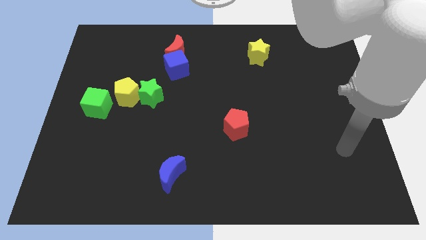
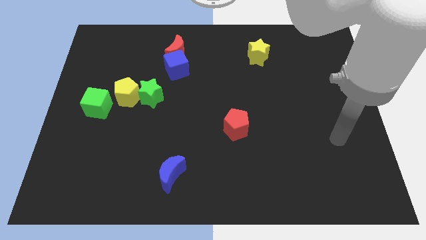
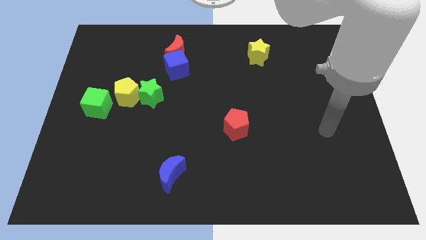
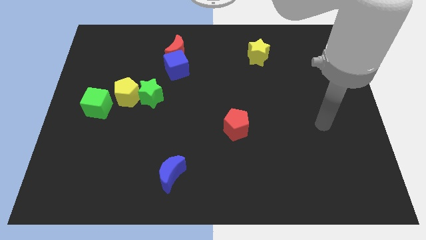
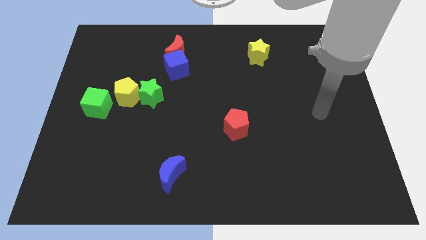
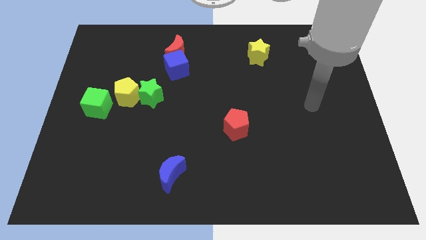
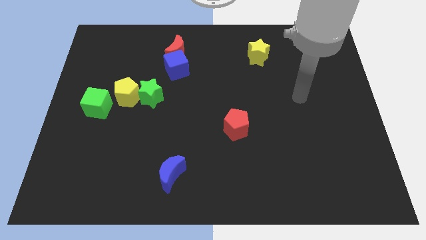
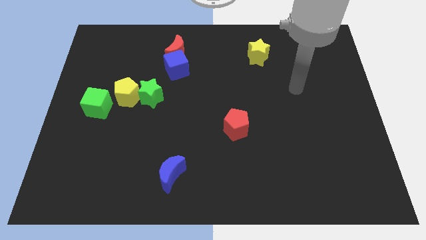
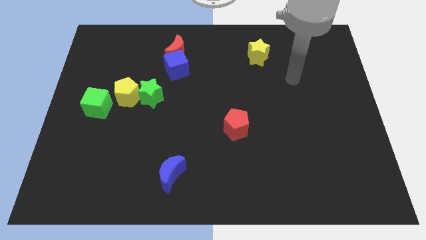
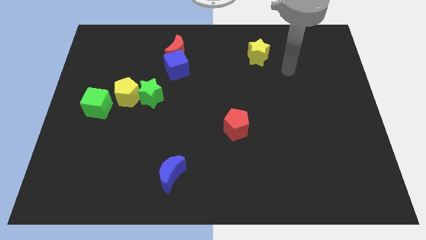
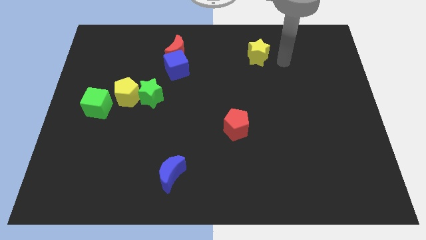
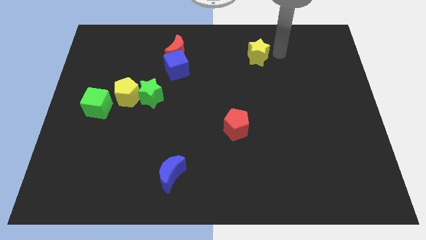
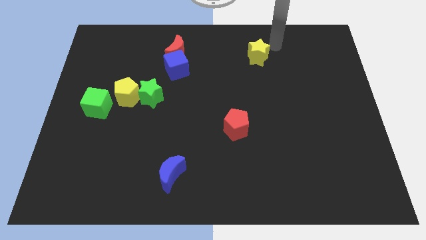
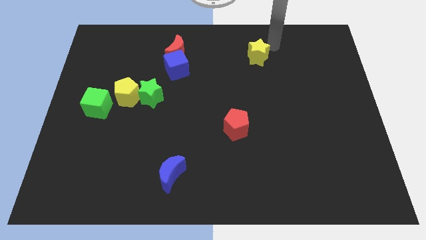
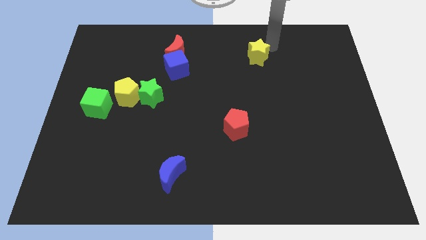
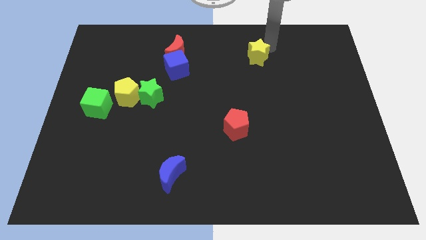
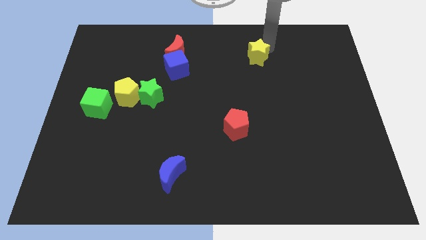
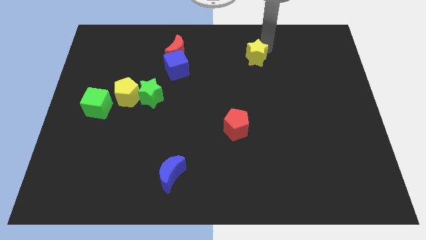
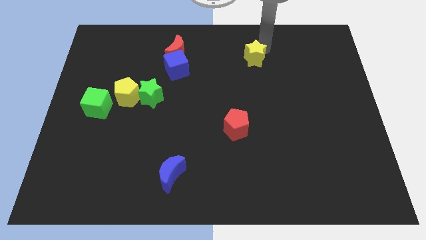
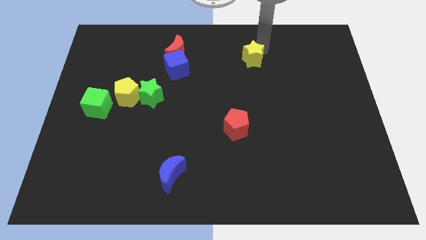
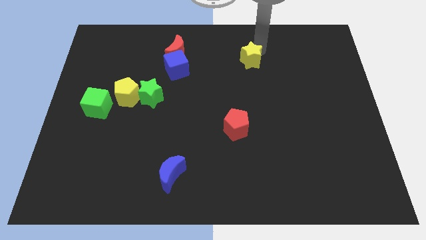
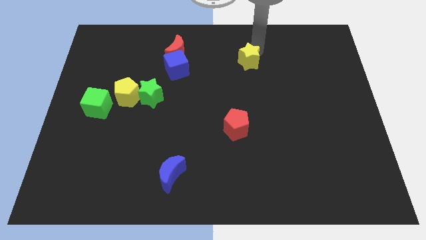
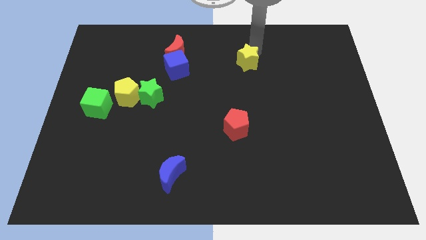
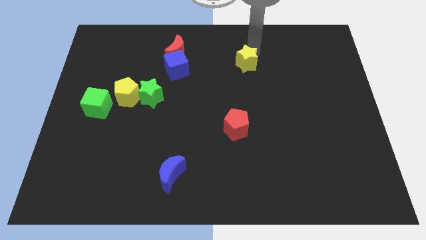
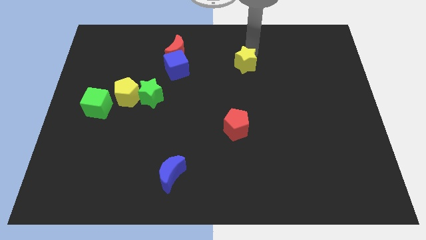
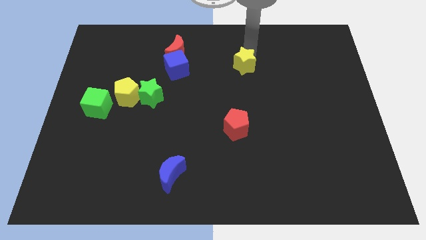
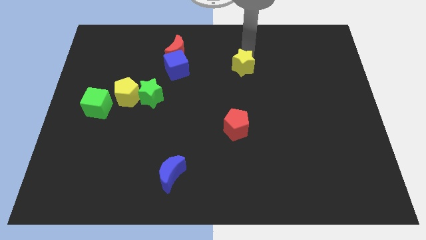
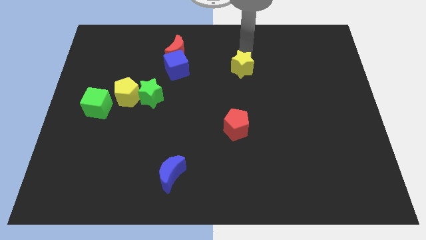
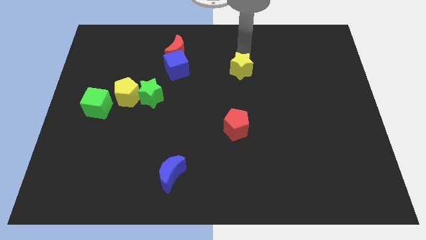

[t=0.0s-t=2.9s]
move the yellow star down and to the left slightly

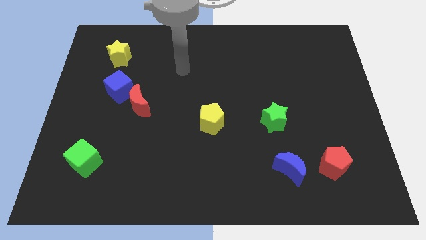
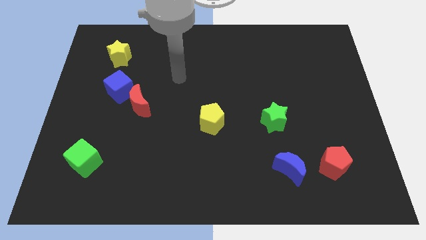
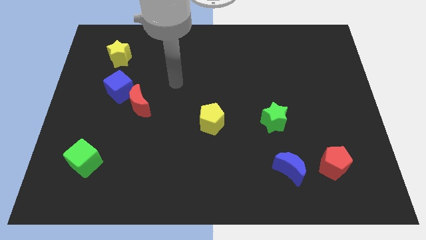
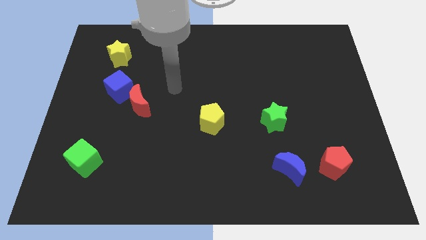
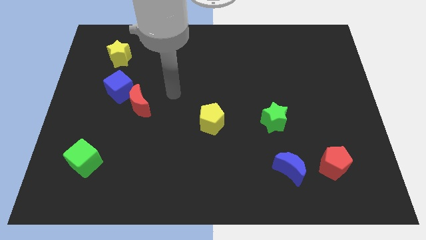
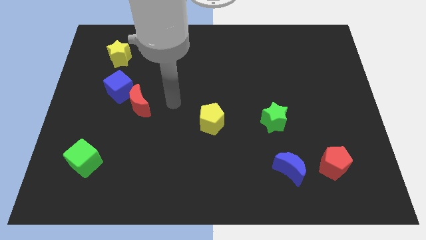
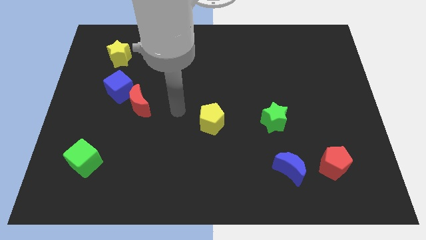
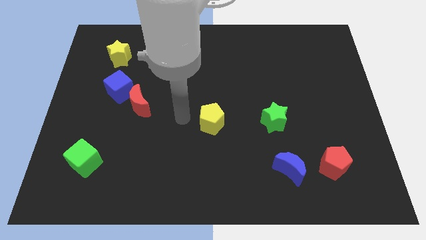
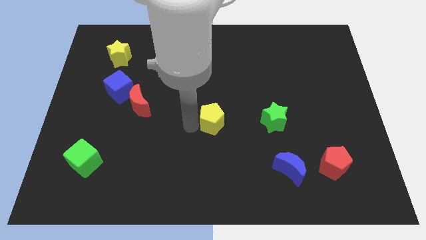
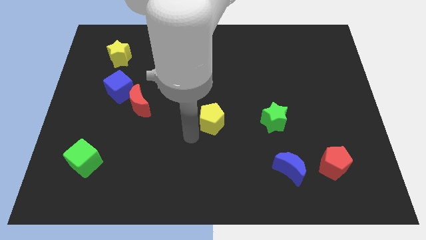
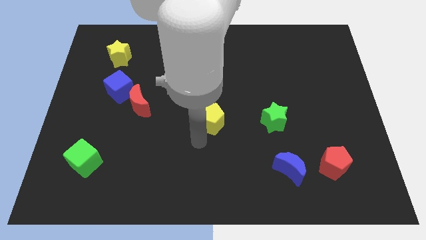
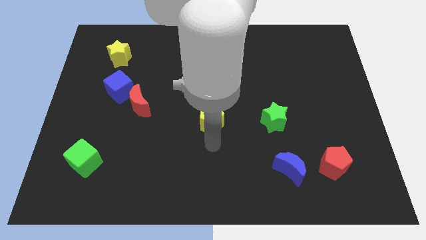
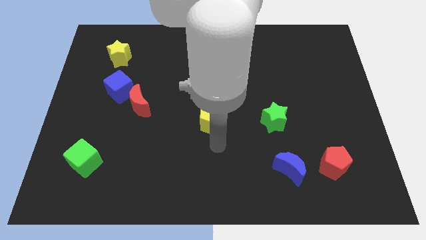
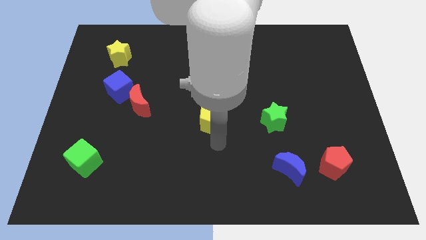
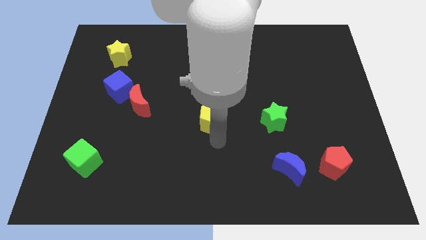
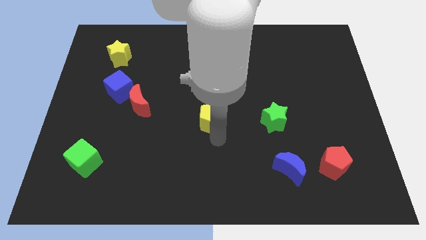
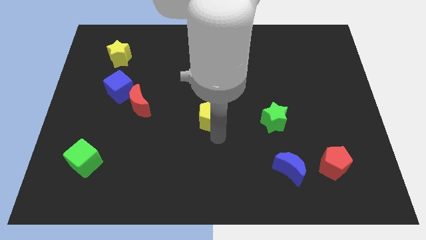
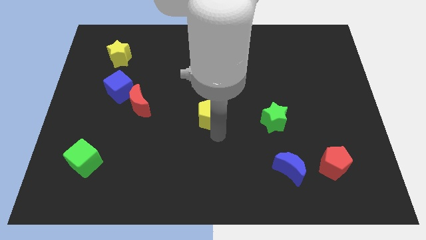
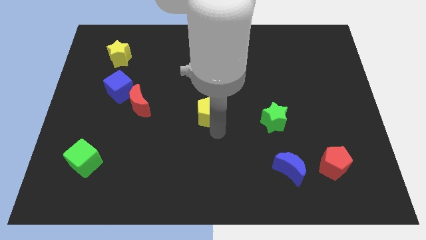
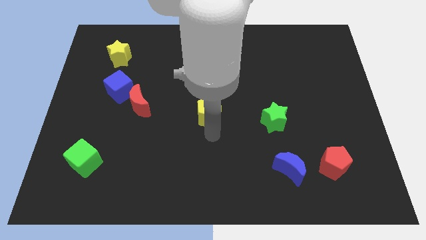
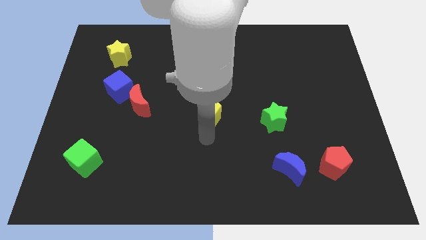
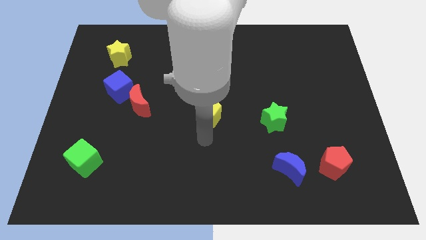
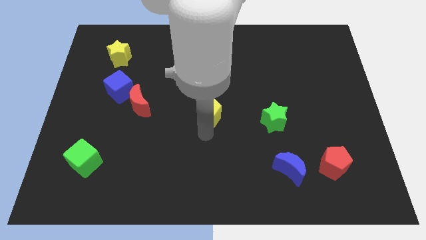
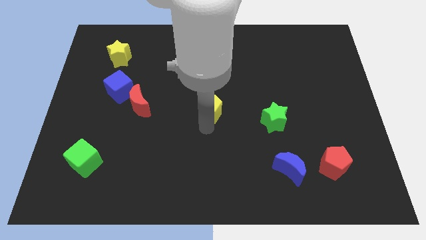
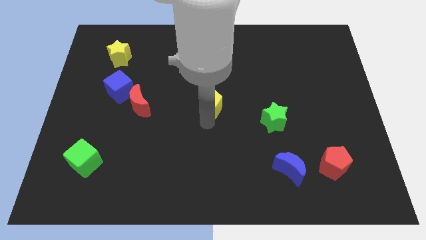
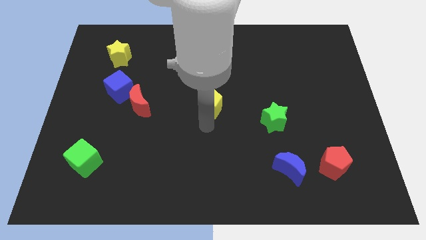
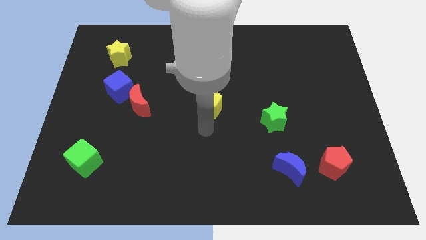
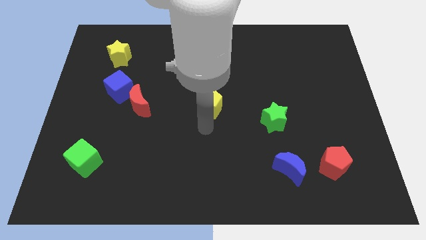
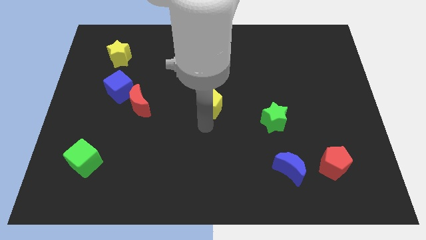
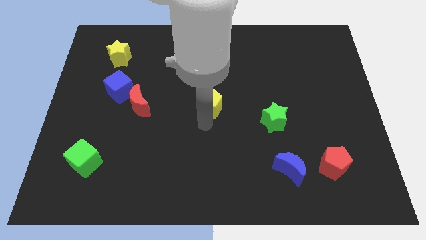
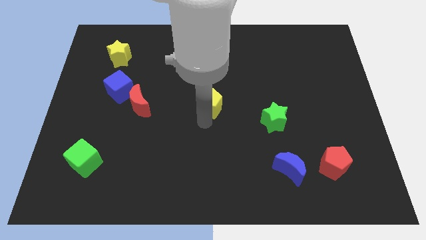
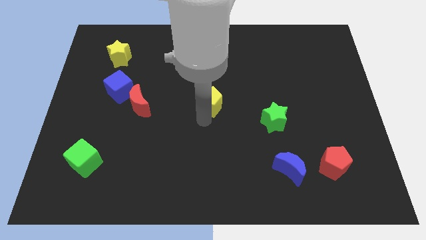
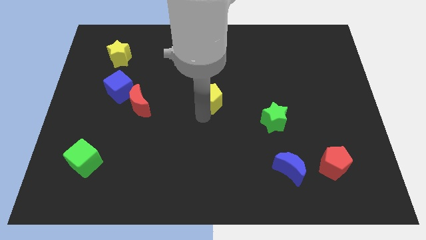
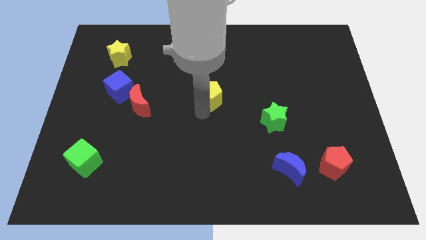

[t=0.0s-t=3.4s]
slide the yellow pentagon up a bit

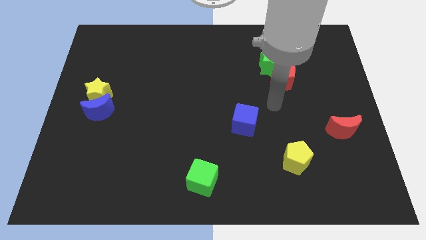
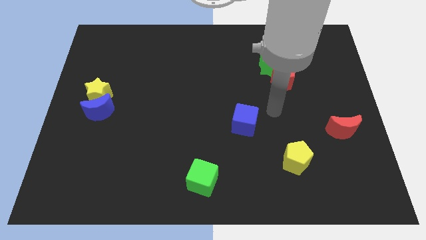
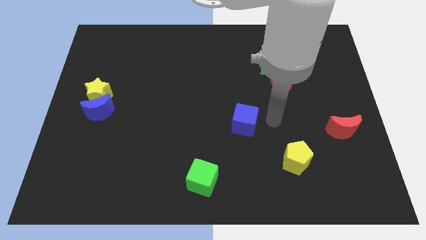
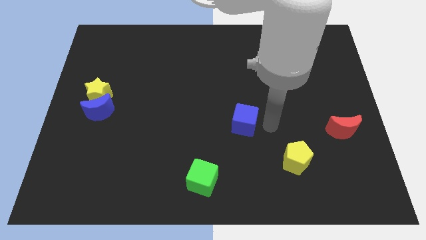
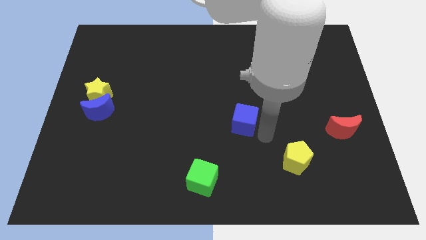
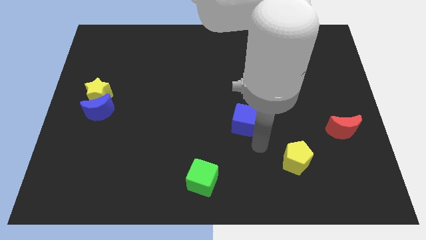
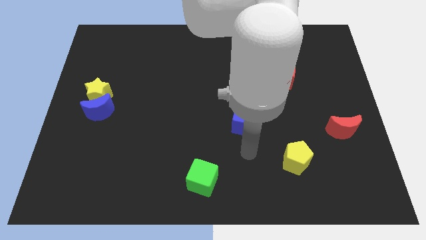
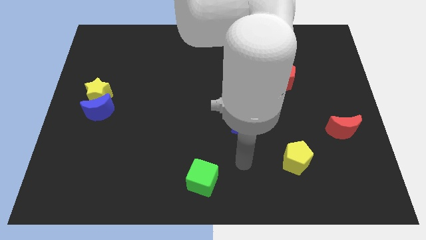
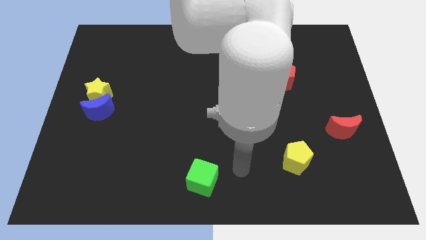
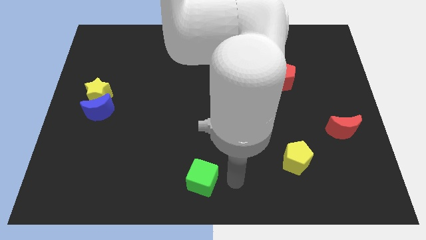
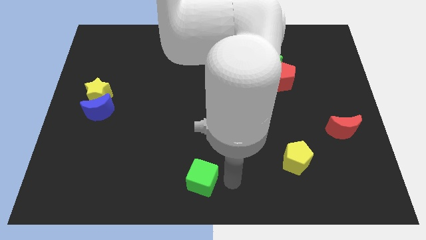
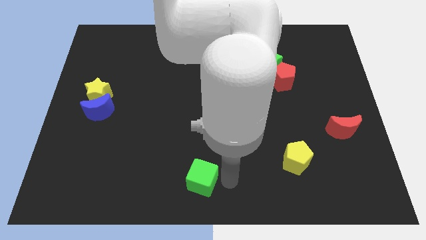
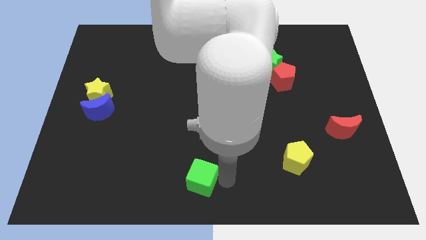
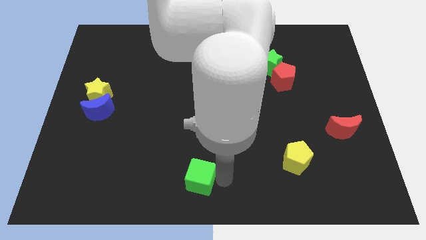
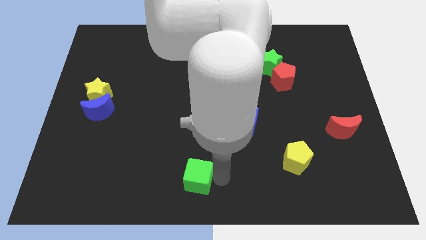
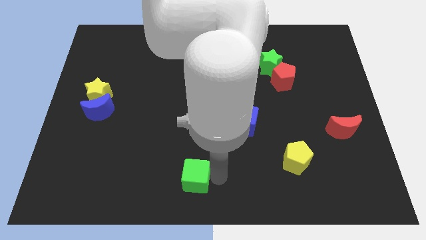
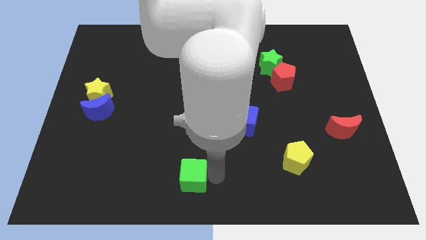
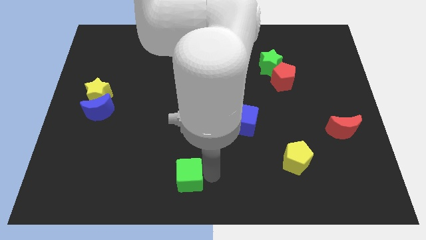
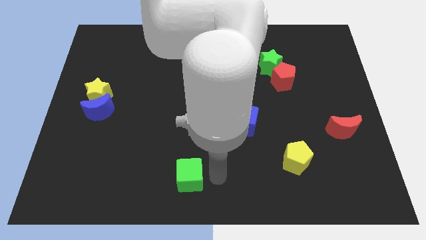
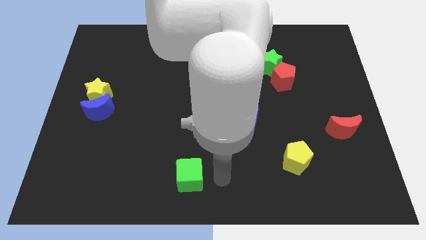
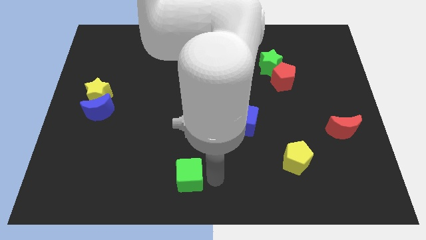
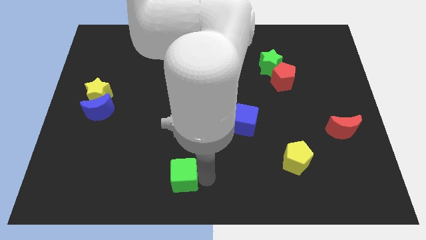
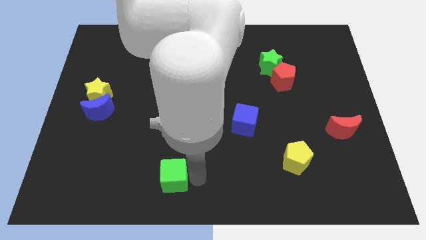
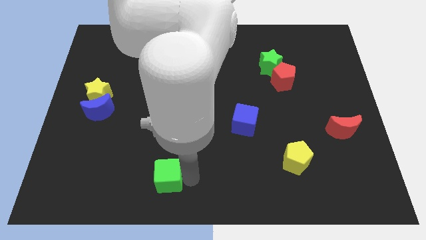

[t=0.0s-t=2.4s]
slightly move the green cube left
